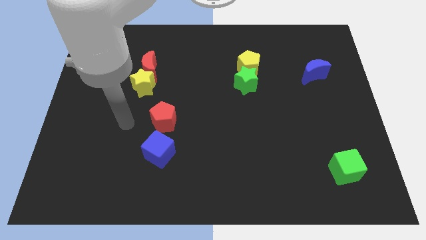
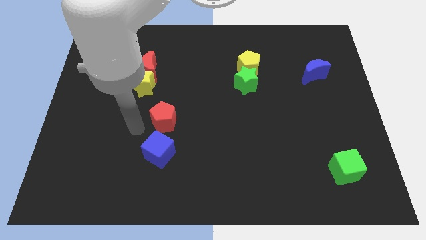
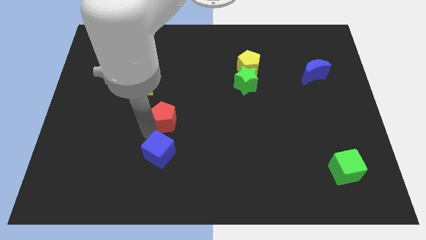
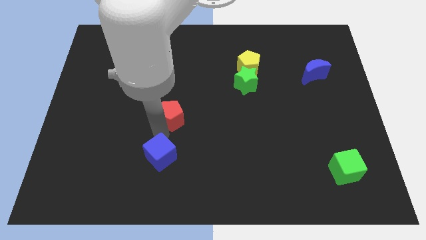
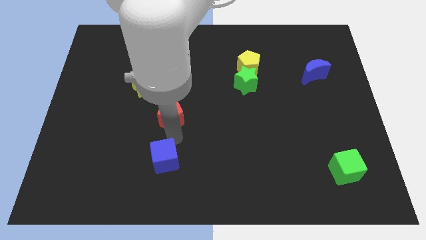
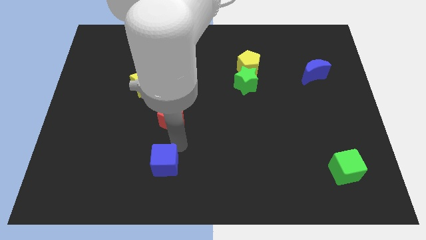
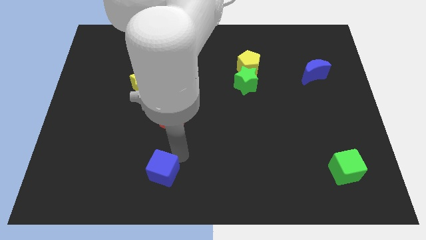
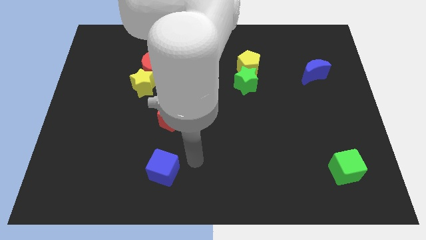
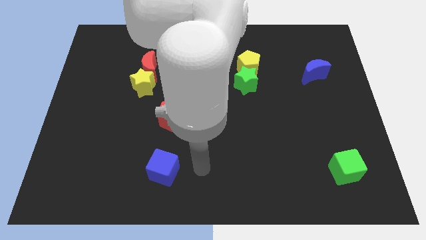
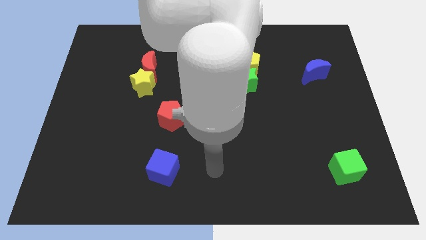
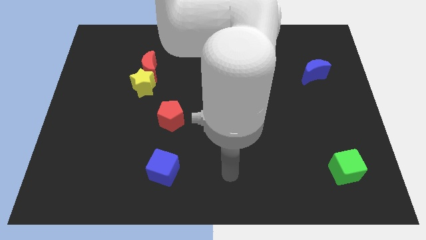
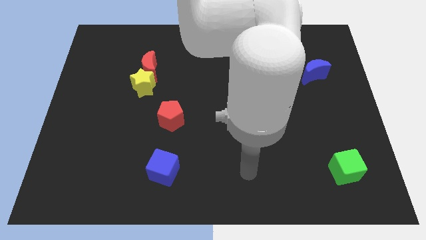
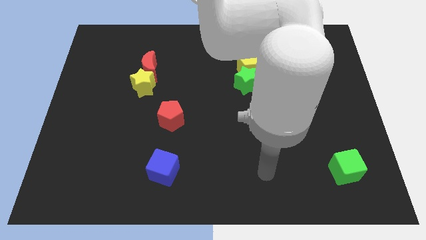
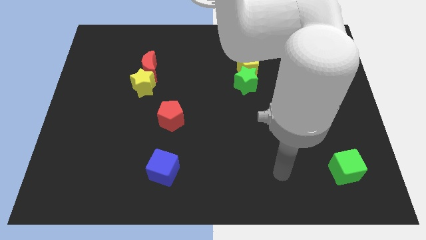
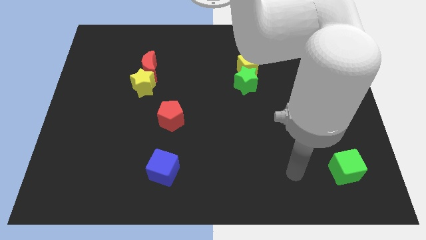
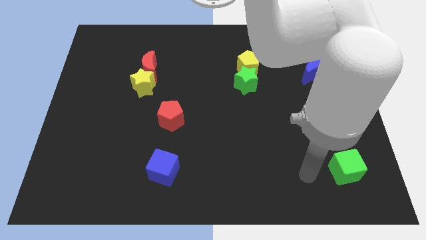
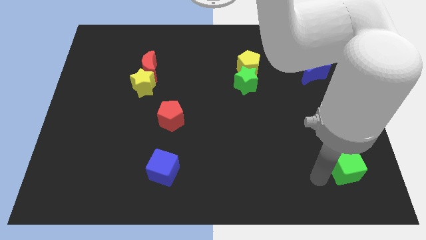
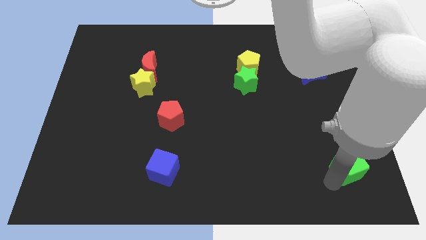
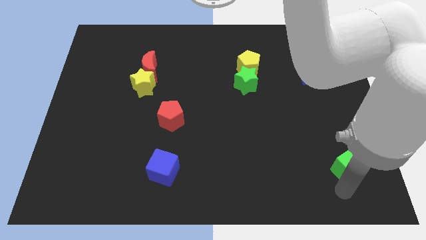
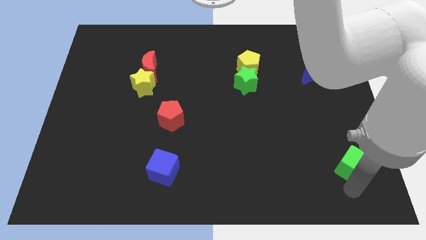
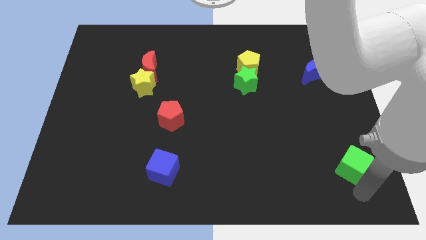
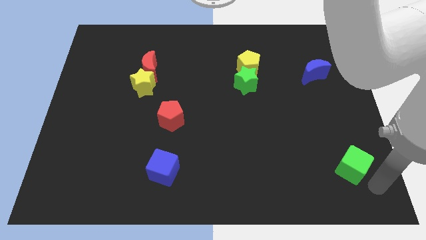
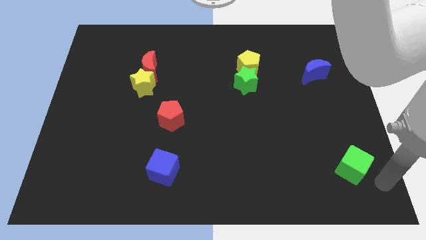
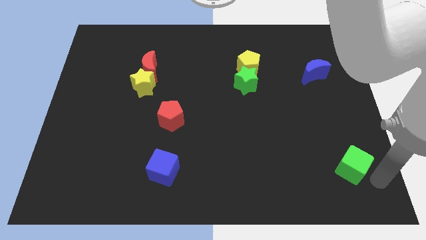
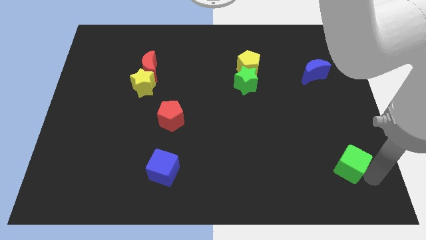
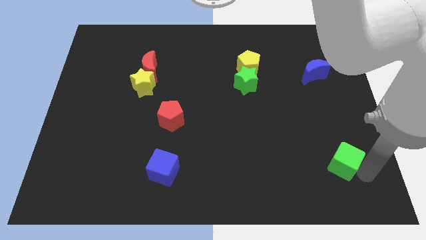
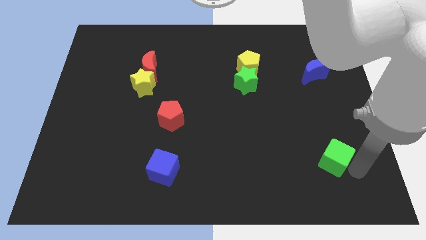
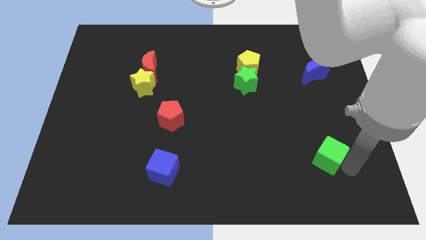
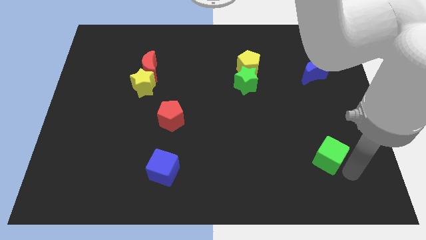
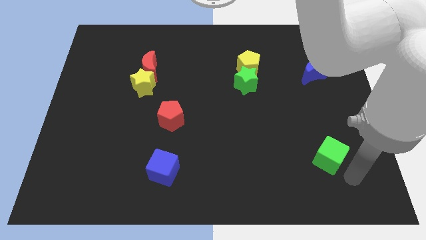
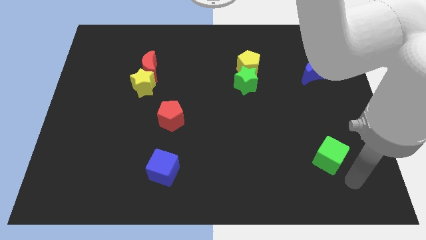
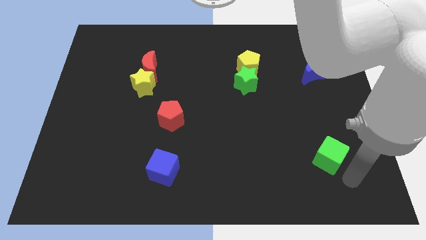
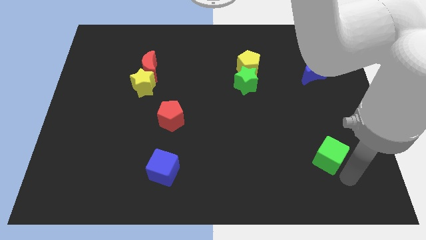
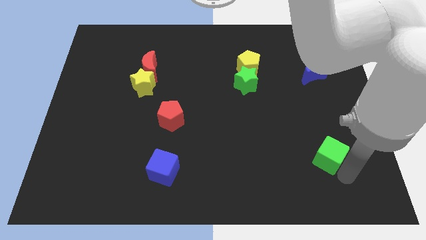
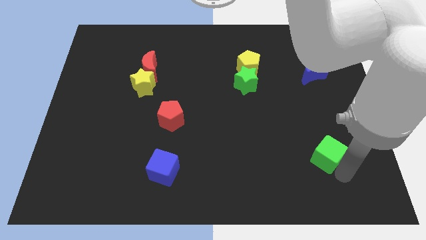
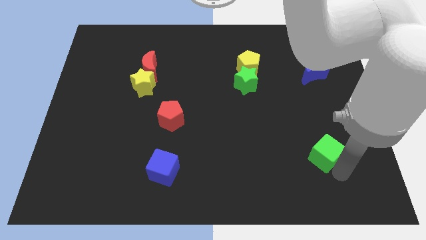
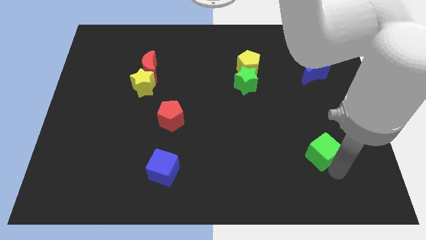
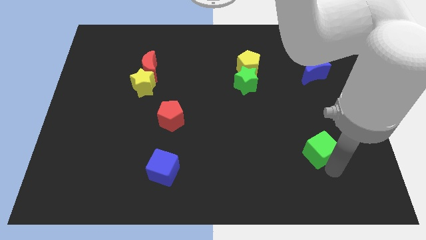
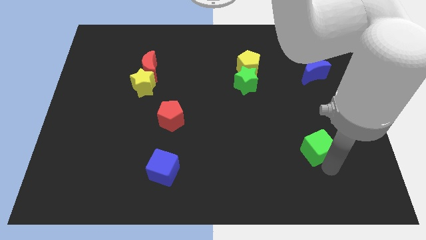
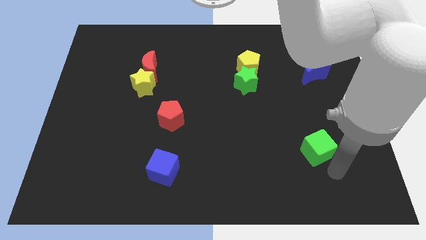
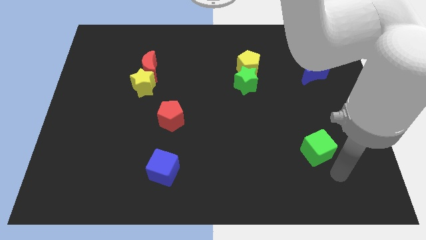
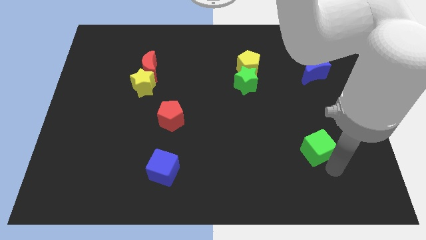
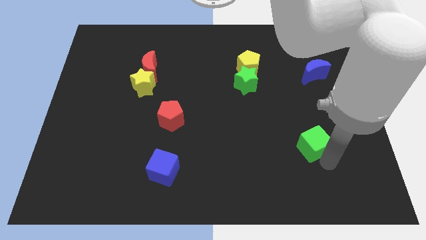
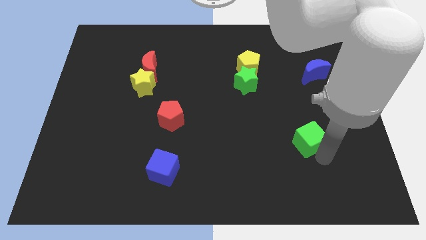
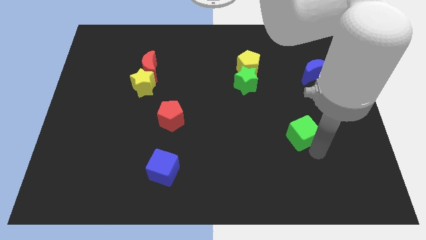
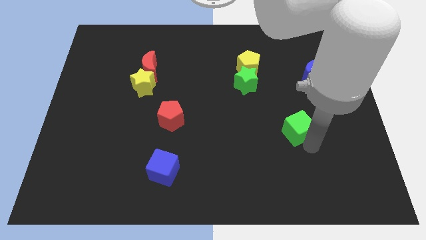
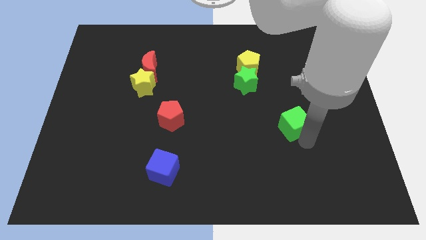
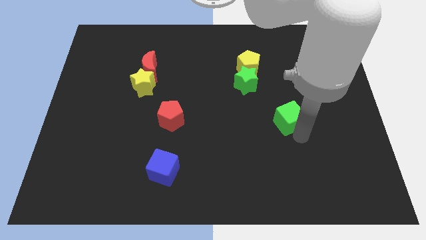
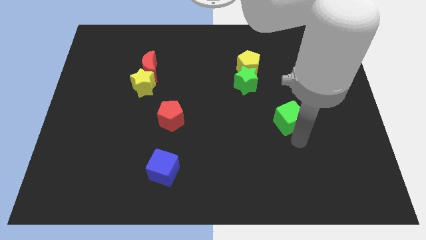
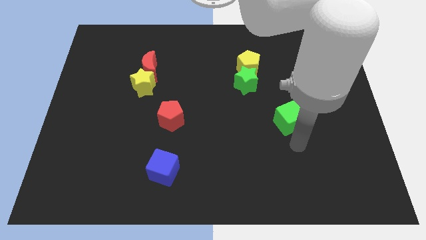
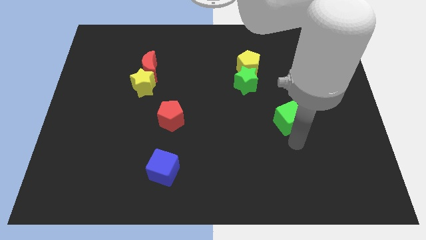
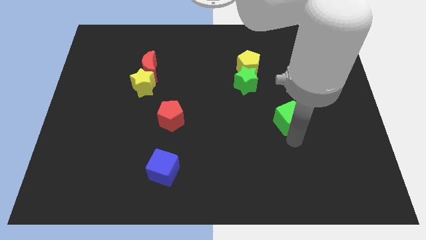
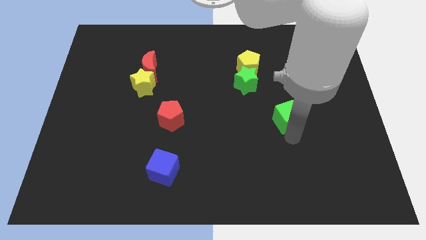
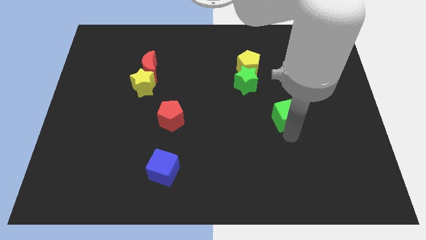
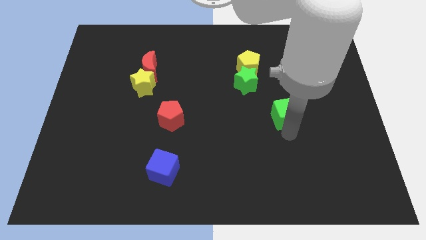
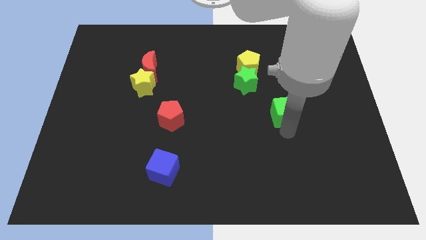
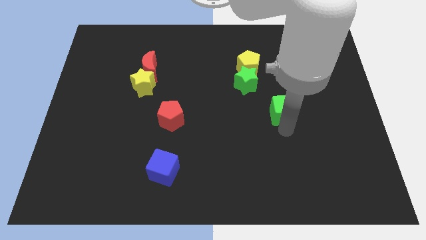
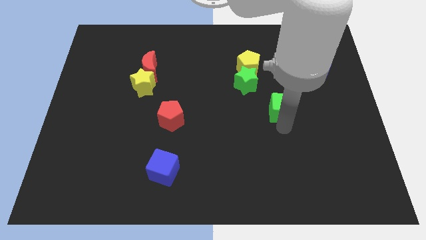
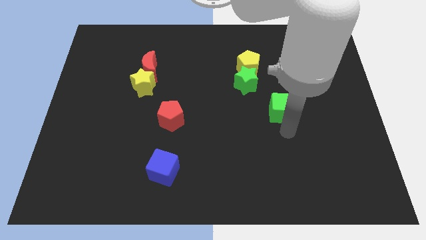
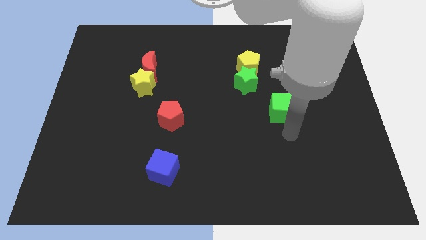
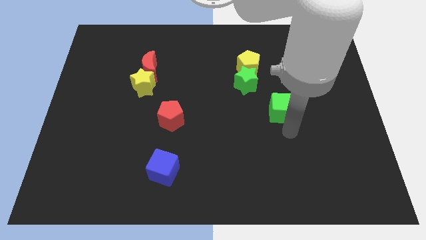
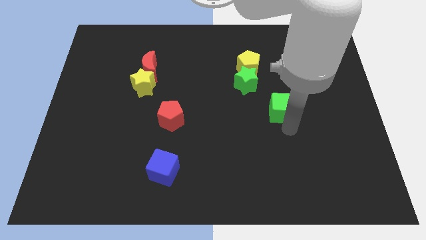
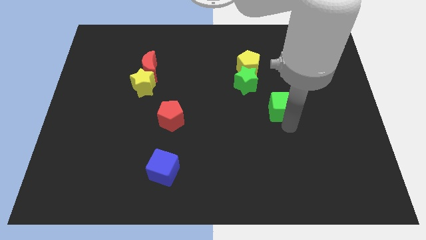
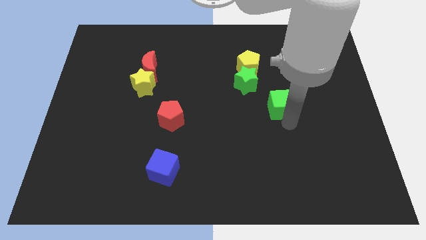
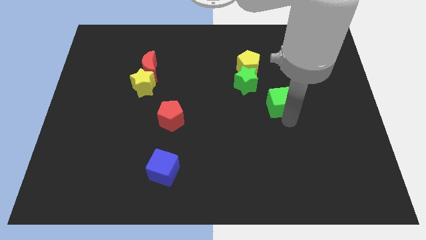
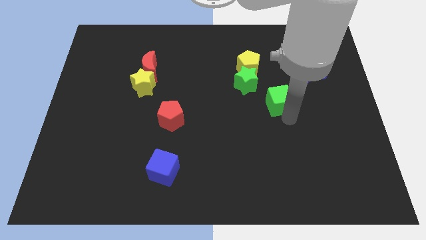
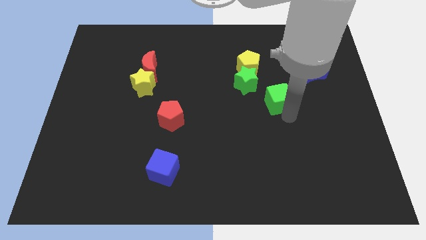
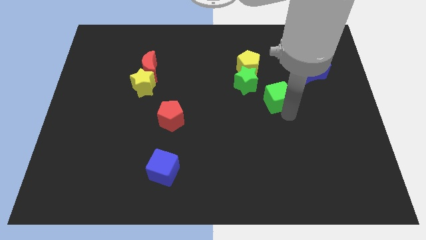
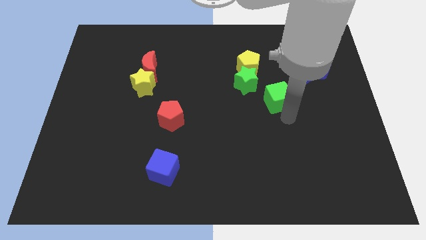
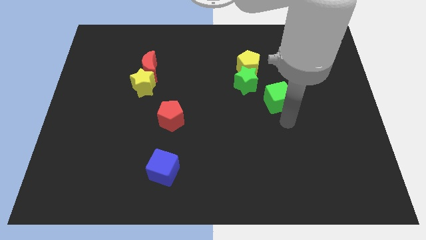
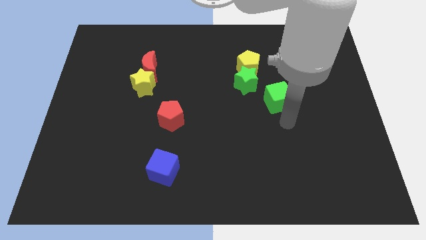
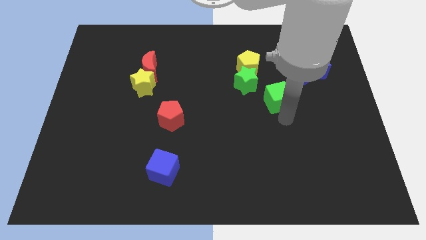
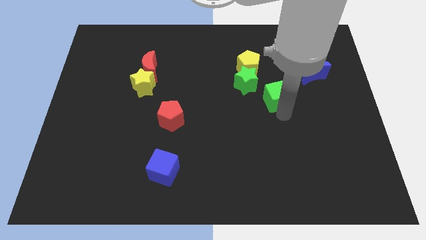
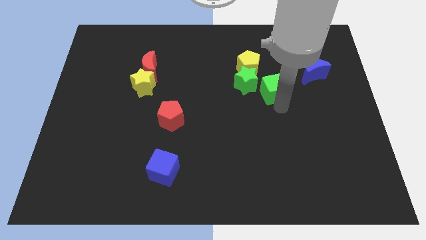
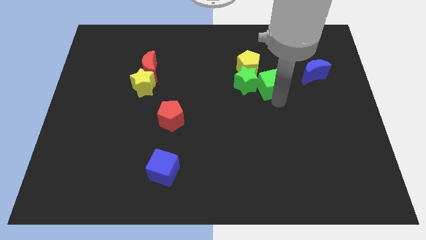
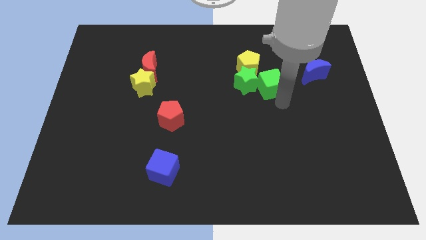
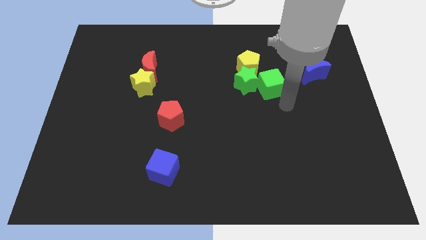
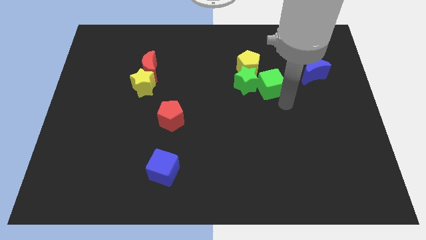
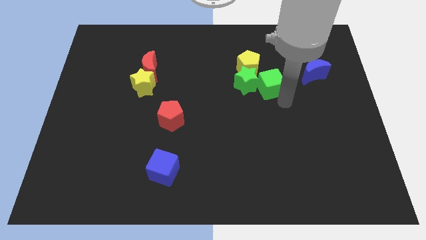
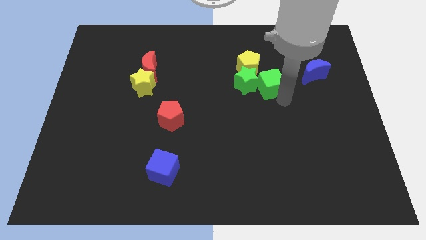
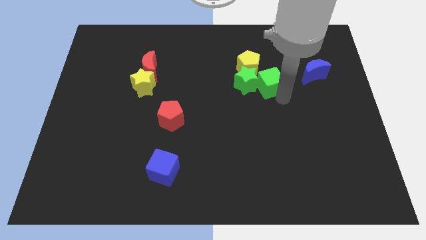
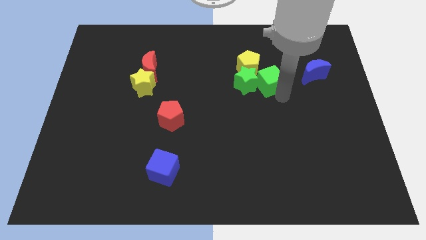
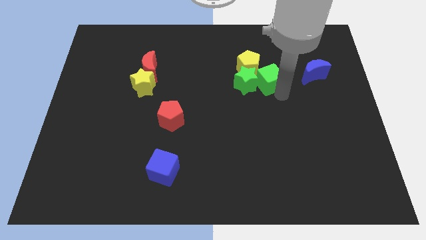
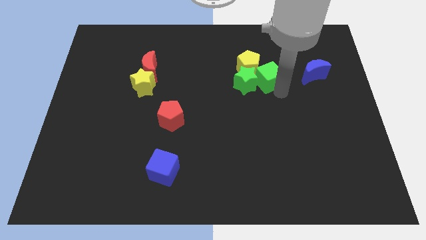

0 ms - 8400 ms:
put the green cube next to the yellow pentagon
